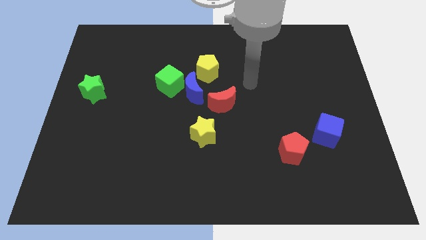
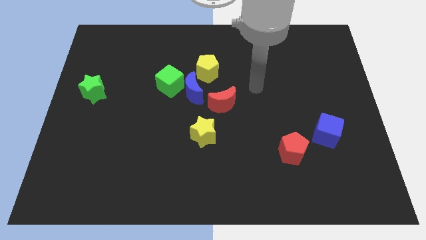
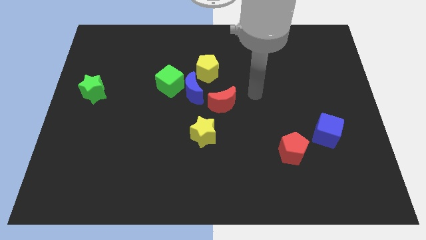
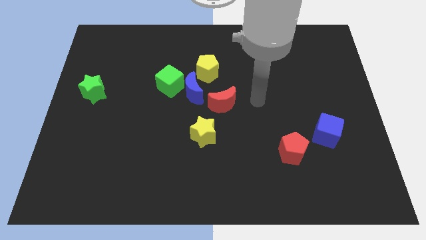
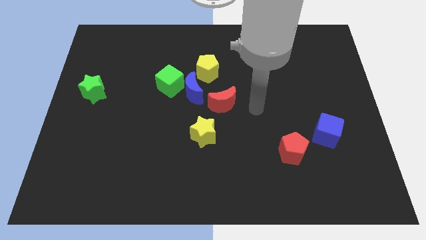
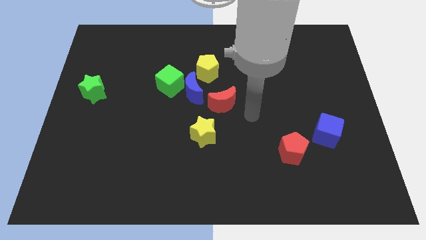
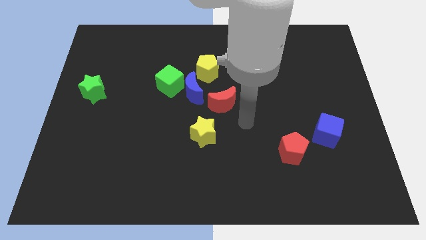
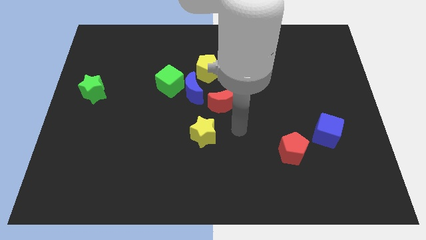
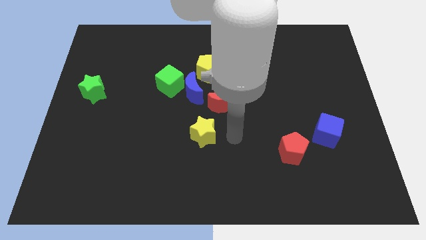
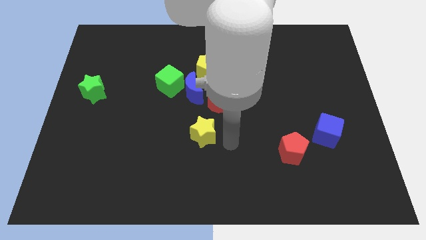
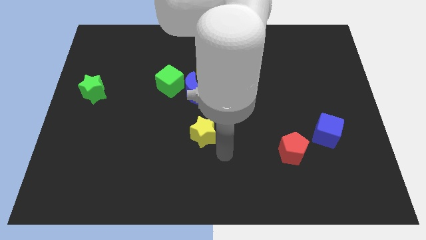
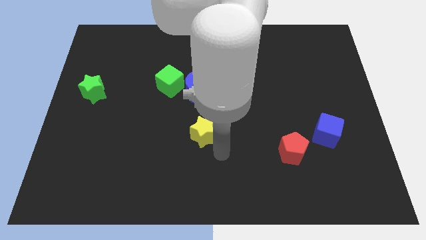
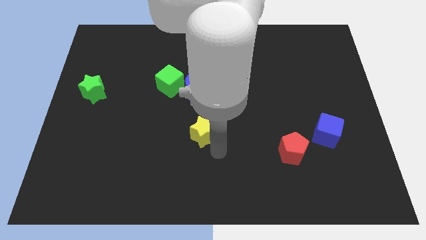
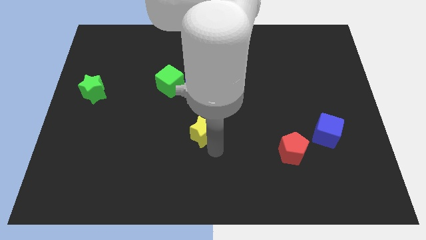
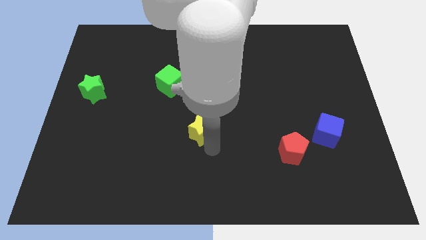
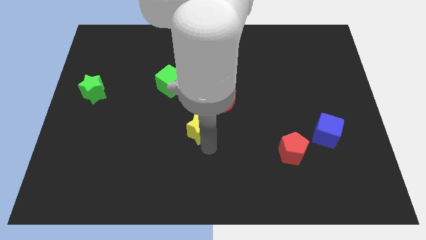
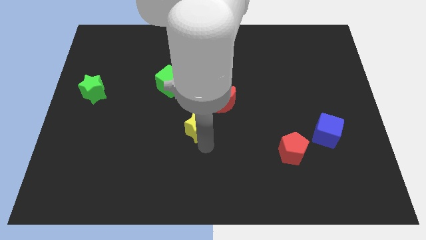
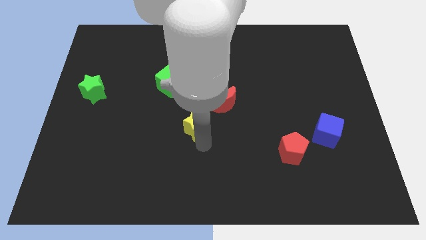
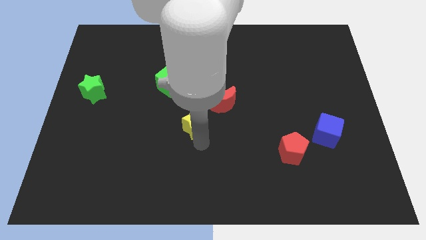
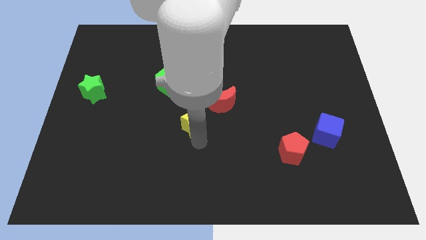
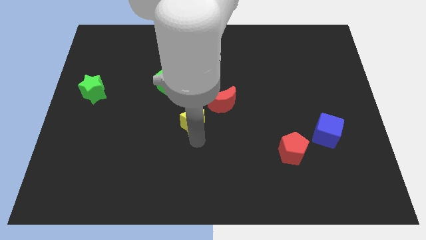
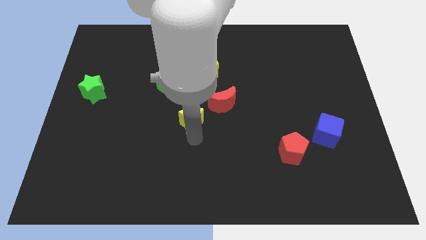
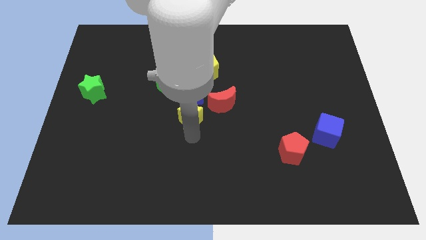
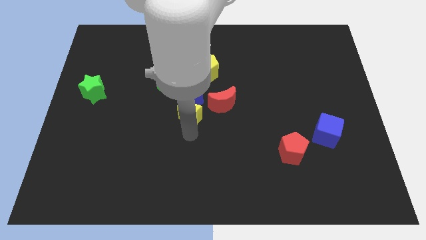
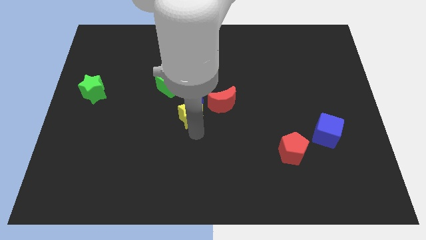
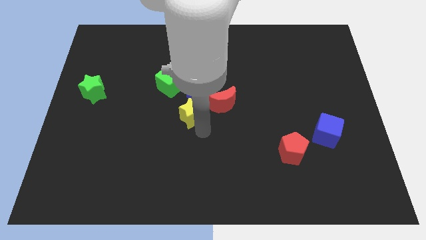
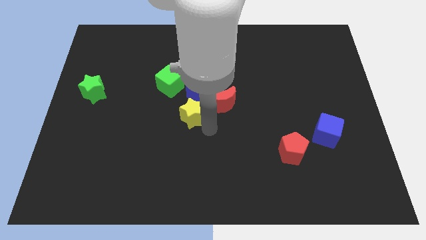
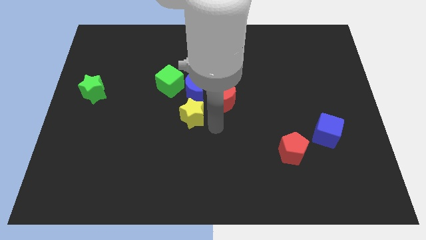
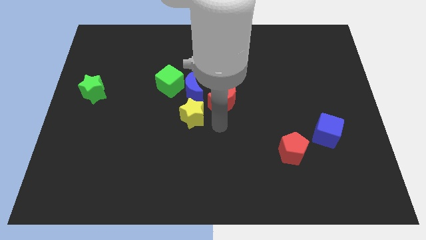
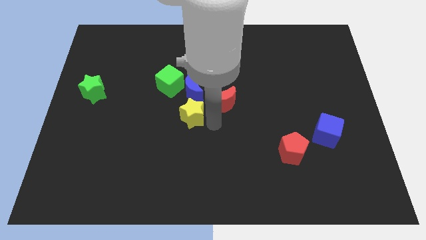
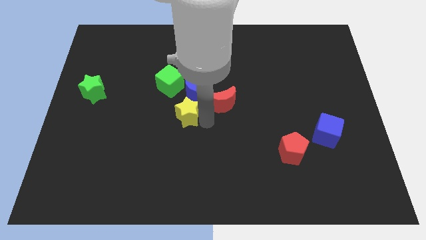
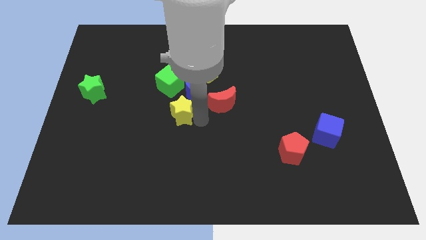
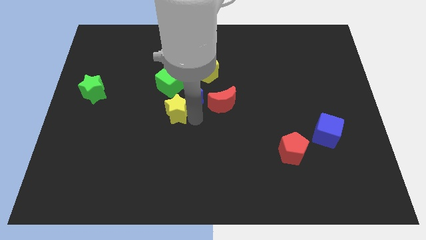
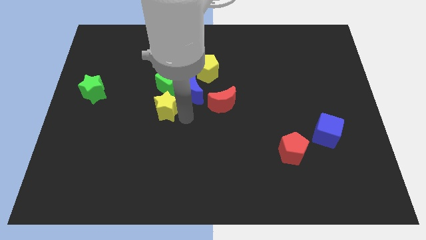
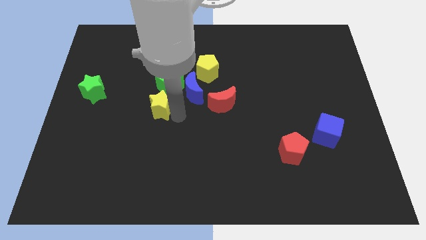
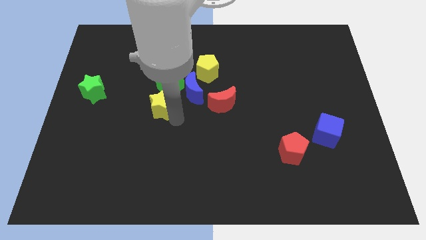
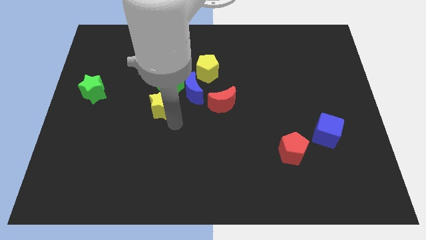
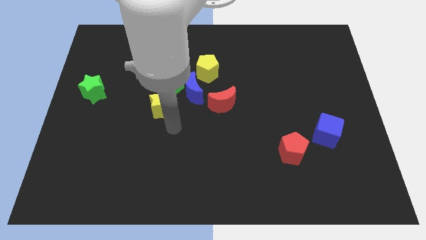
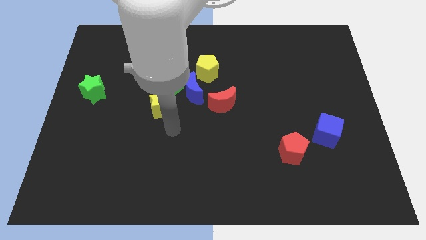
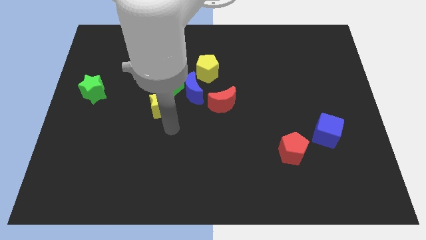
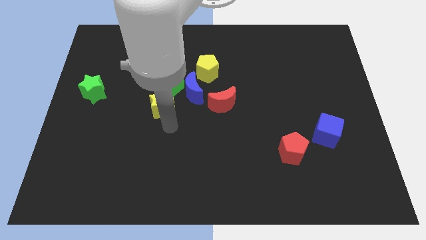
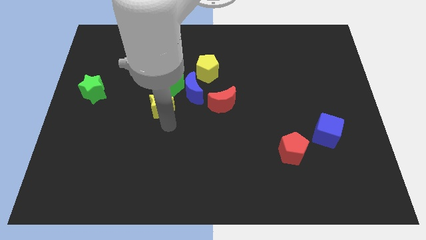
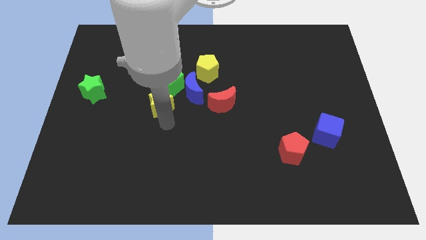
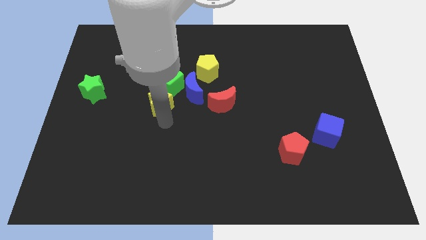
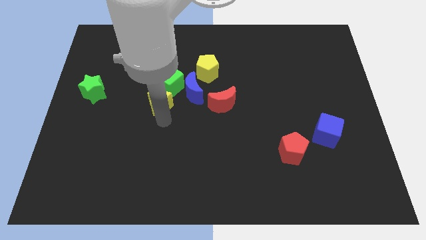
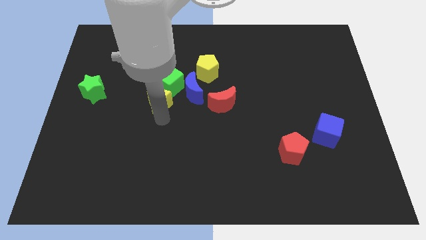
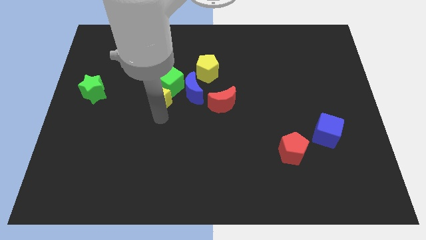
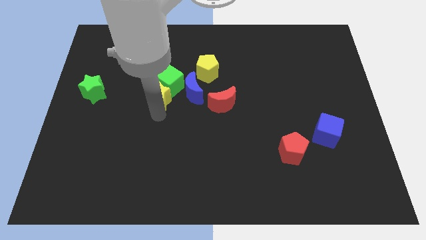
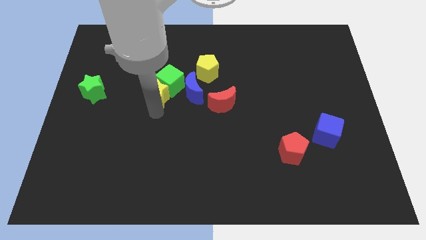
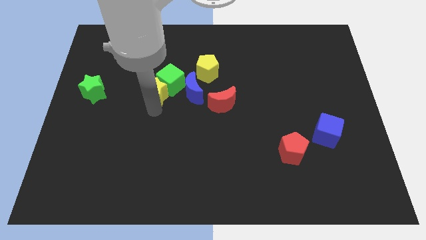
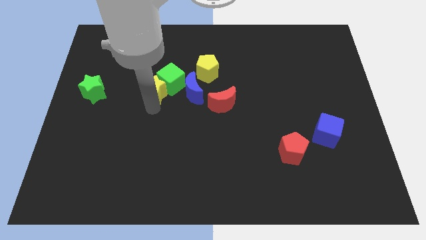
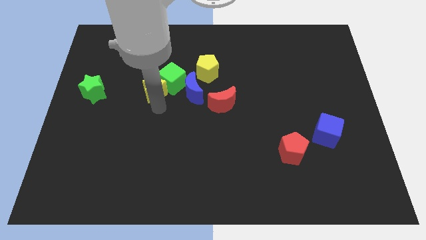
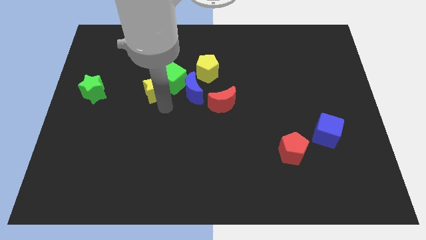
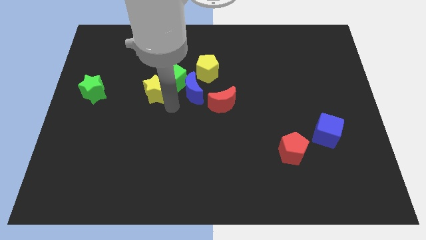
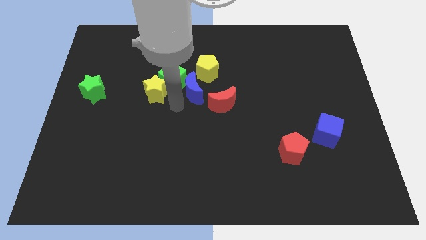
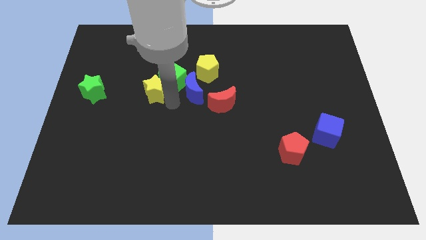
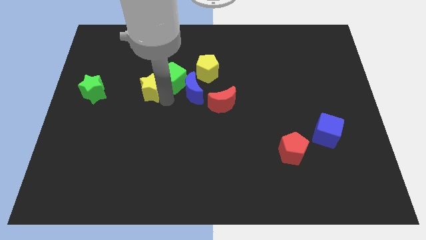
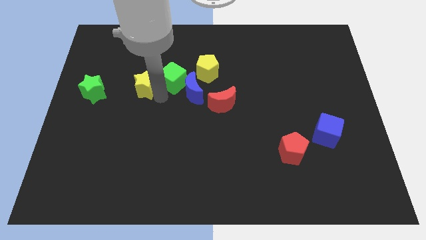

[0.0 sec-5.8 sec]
push the yellow star upwards and to the left

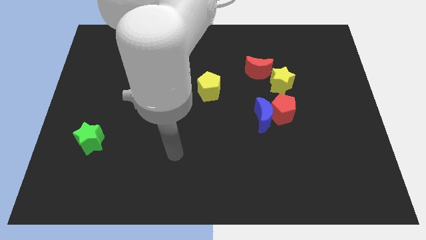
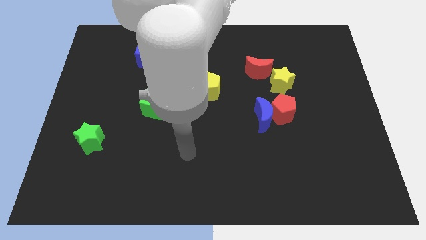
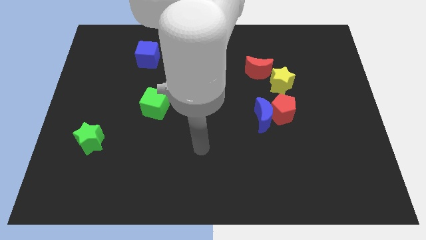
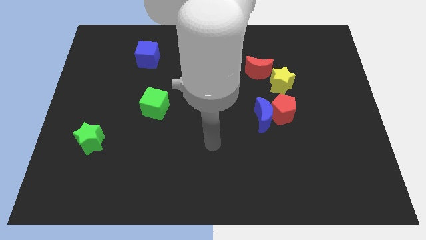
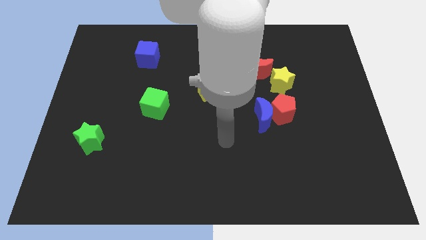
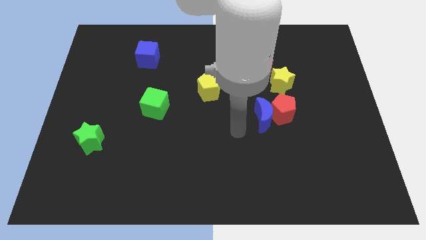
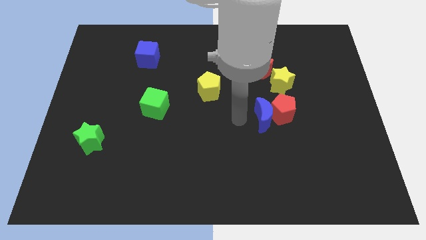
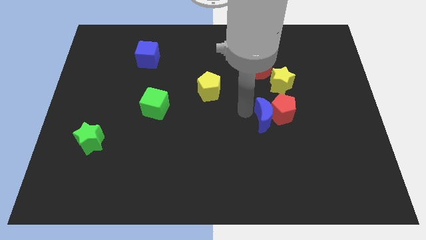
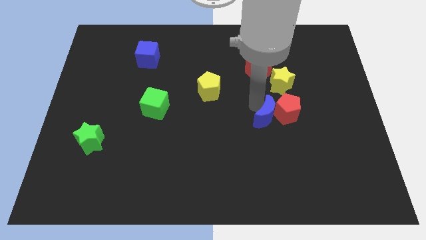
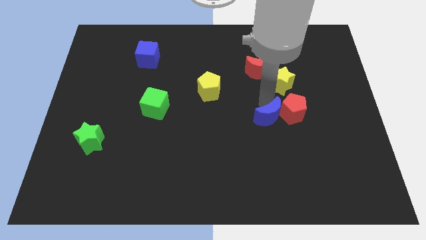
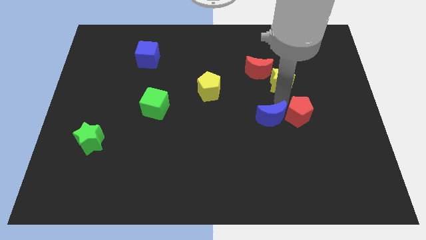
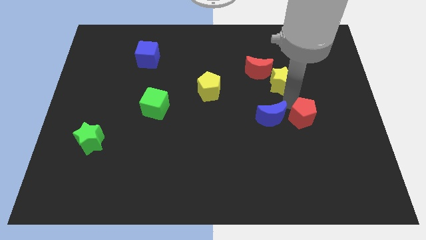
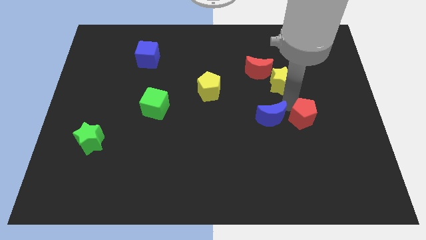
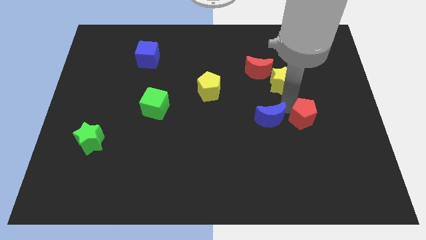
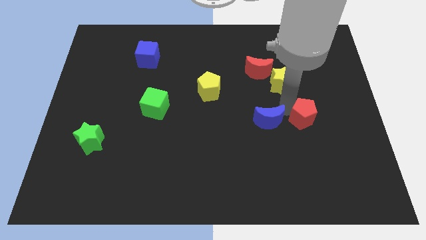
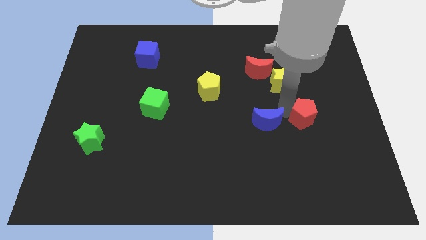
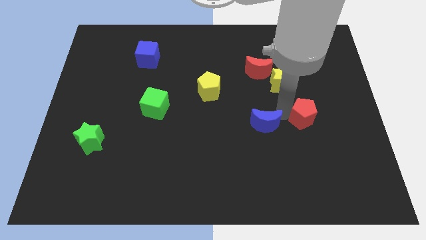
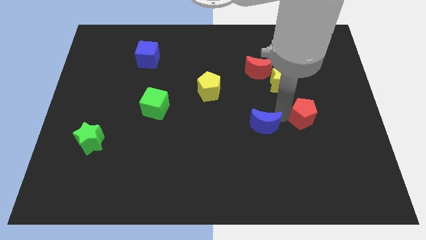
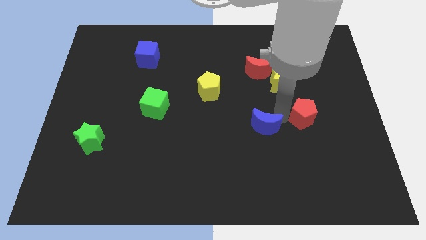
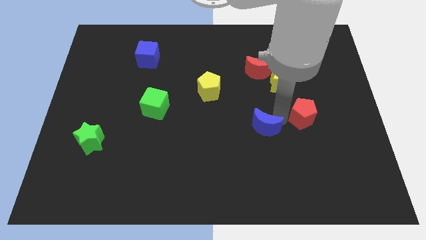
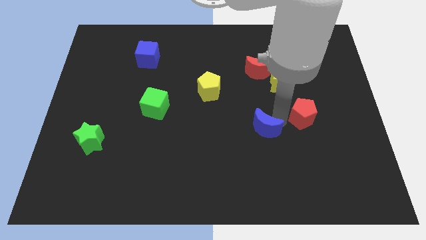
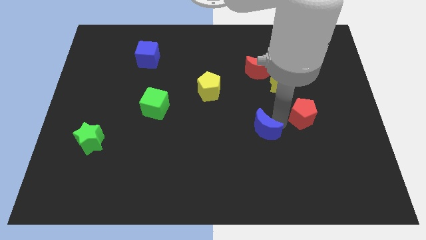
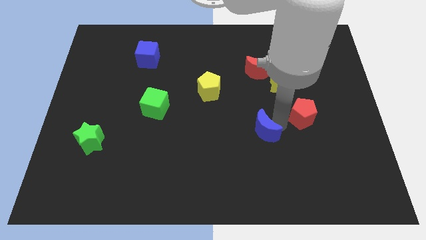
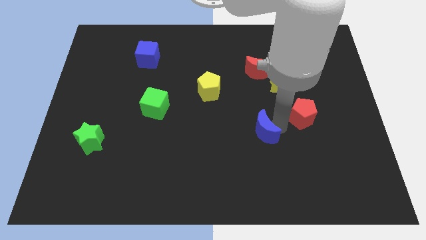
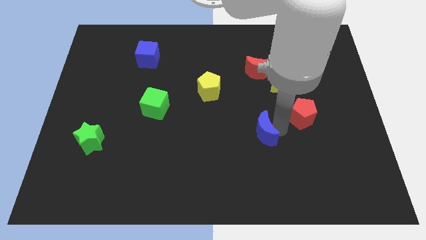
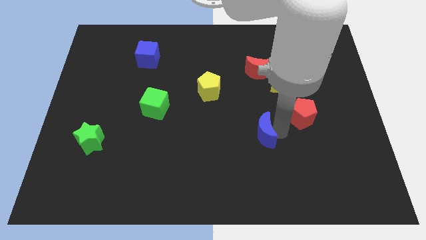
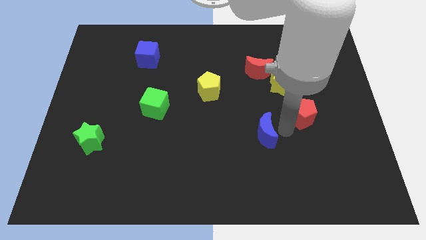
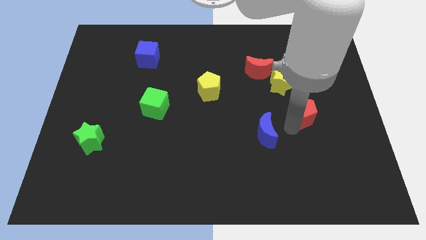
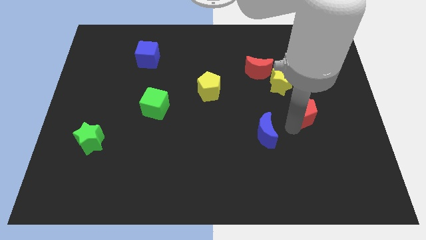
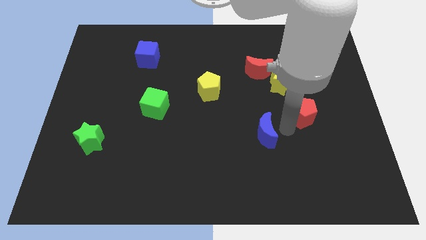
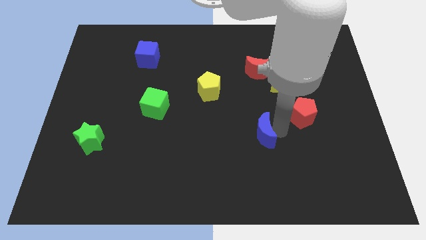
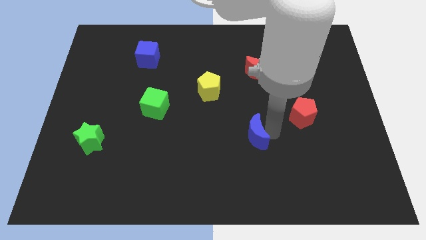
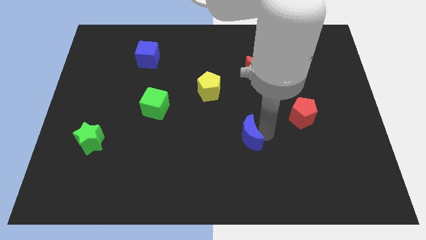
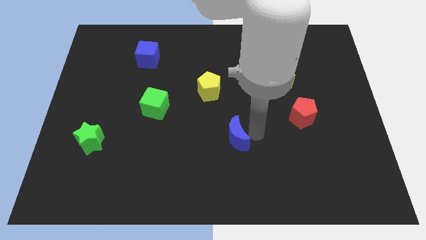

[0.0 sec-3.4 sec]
move the blue moon diagonally downwards and left a little
